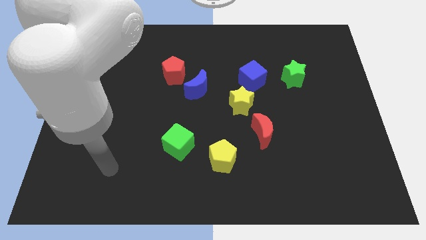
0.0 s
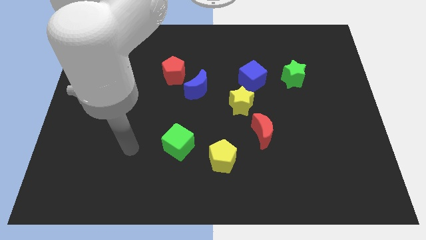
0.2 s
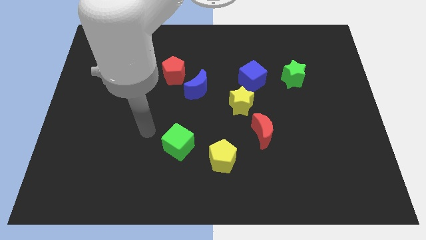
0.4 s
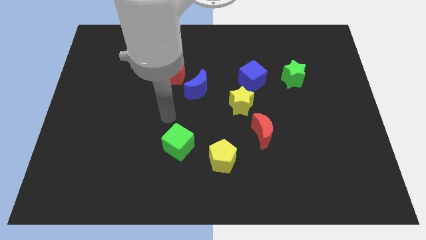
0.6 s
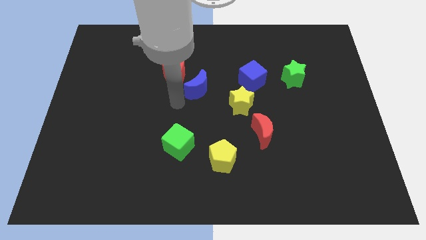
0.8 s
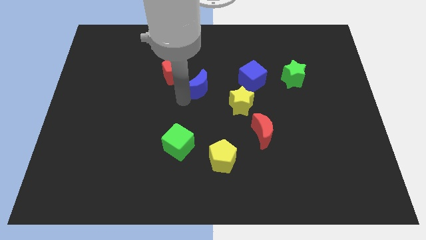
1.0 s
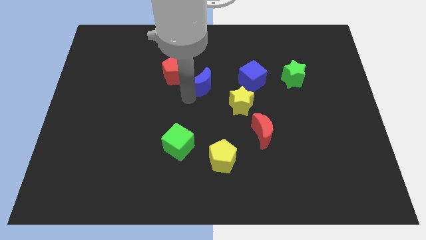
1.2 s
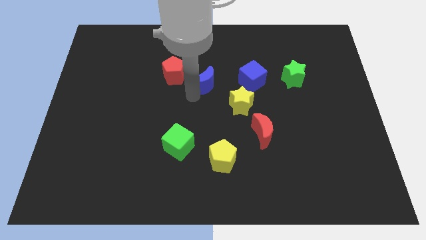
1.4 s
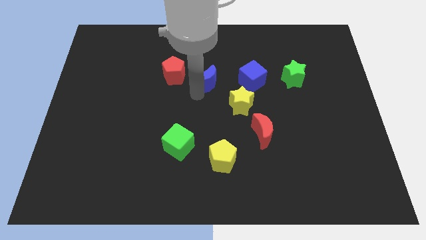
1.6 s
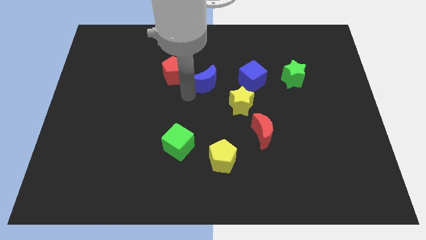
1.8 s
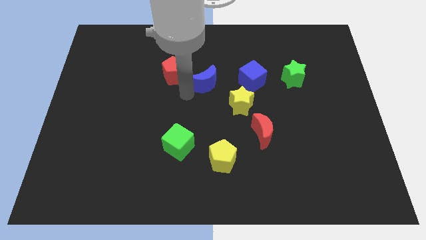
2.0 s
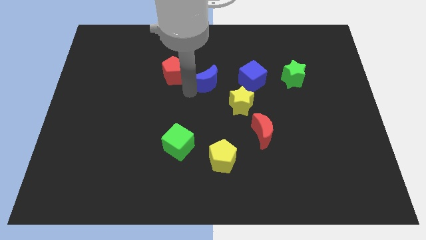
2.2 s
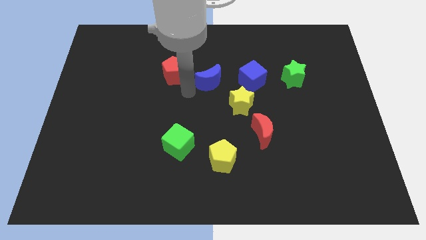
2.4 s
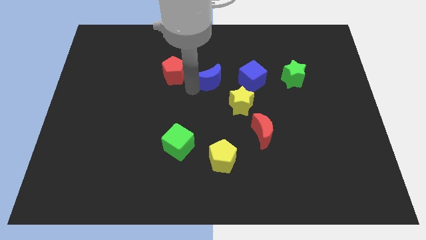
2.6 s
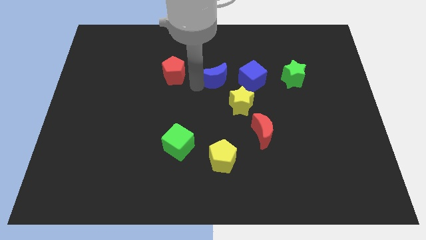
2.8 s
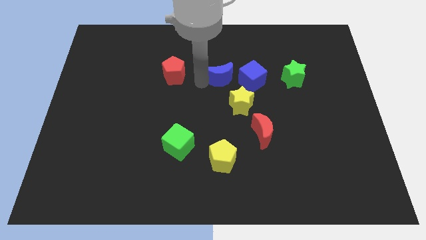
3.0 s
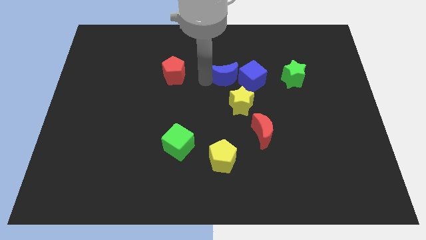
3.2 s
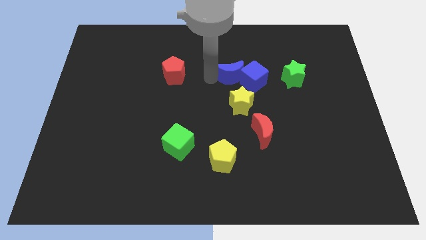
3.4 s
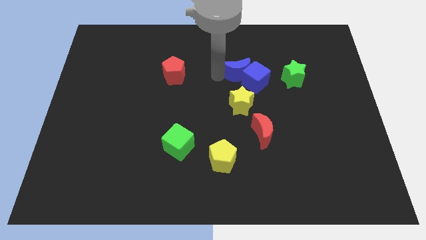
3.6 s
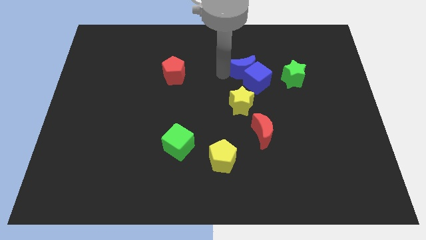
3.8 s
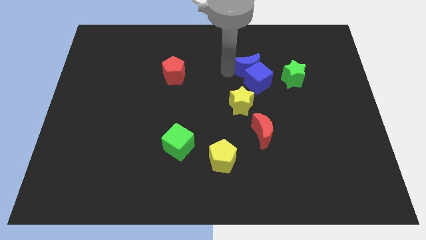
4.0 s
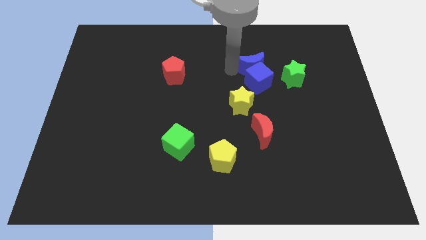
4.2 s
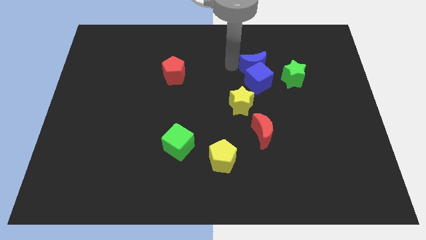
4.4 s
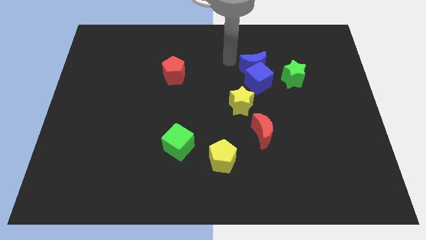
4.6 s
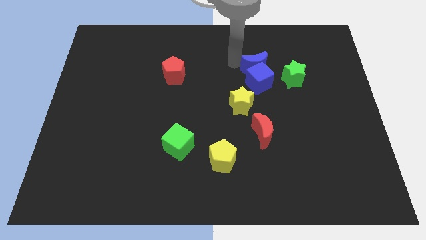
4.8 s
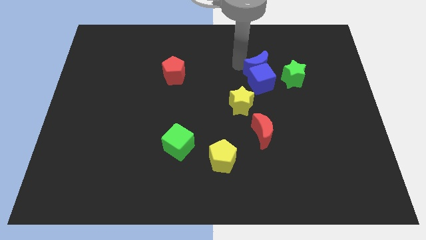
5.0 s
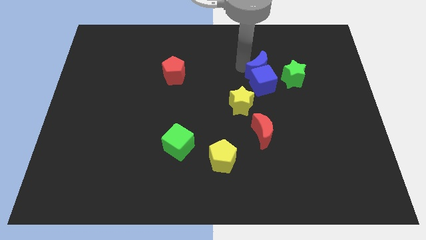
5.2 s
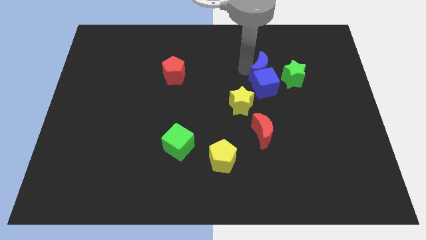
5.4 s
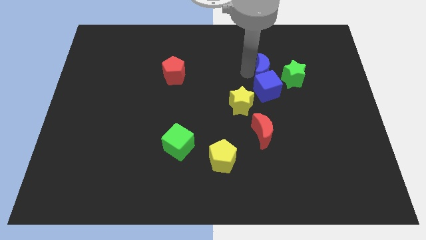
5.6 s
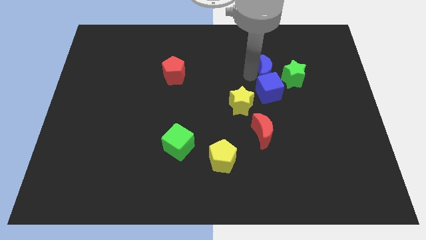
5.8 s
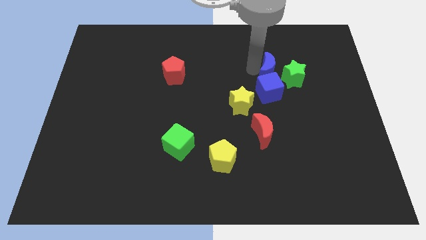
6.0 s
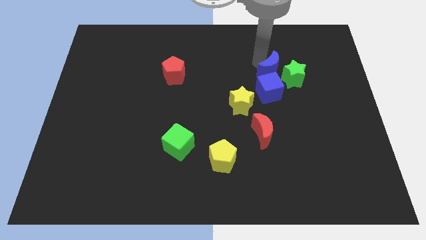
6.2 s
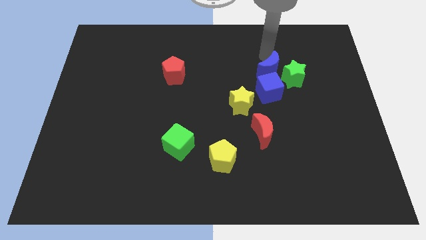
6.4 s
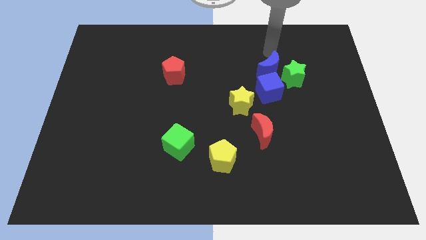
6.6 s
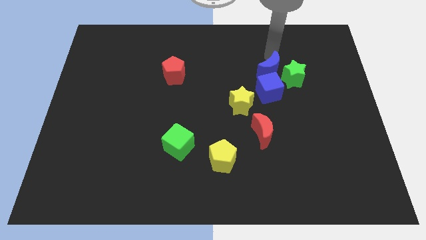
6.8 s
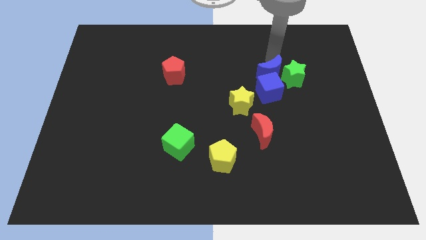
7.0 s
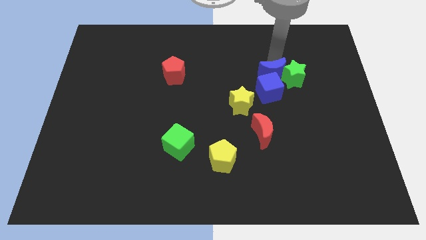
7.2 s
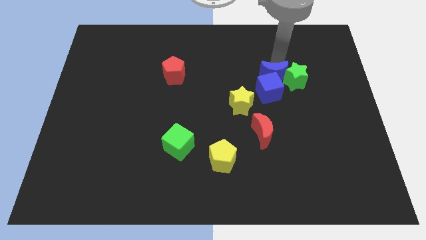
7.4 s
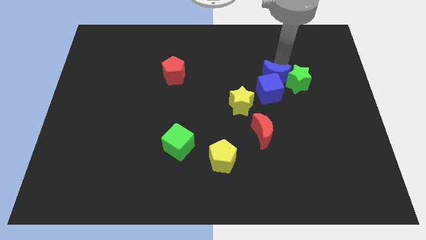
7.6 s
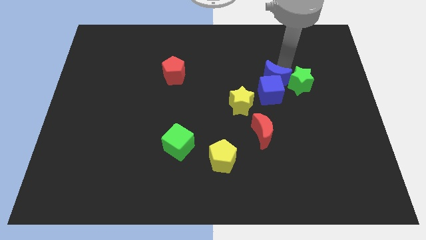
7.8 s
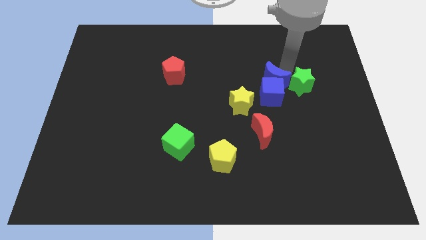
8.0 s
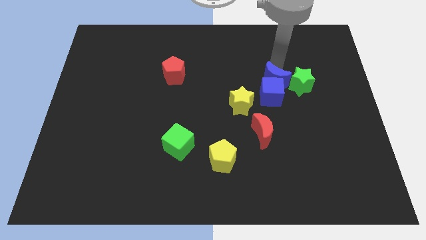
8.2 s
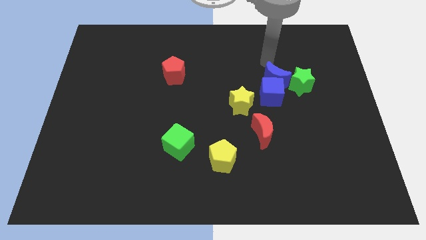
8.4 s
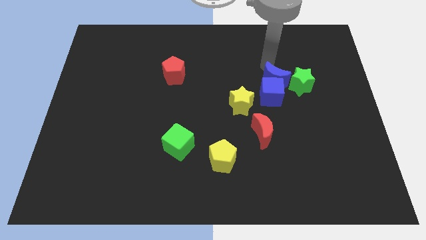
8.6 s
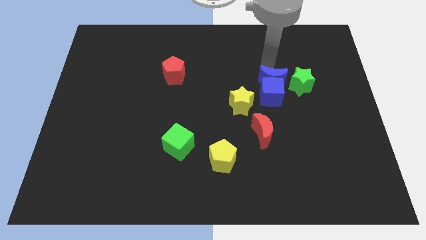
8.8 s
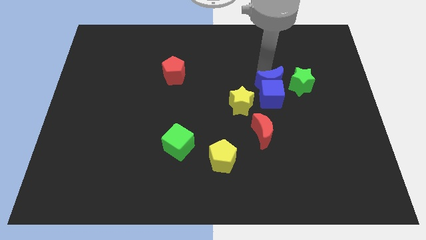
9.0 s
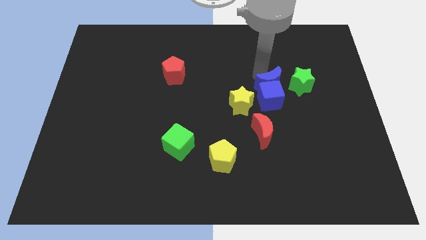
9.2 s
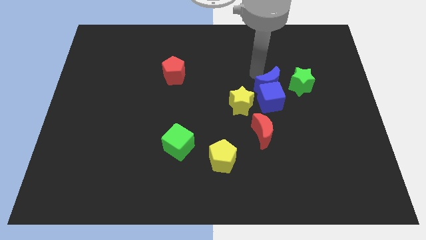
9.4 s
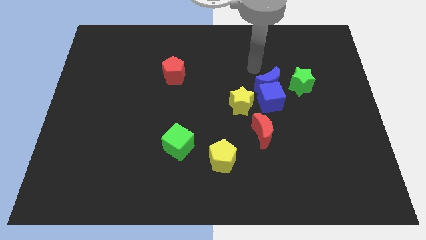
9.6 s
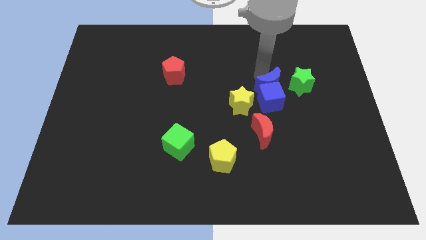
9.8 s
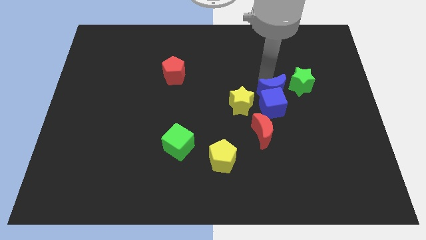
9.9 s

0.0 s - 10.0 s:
move the blue moon to the right side of the yellow star

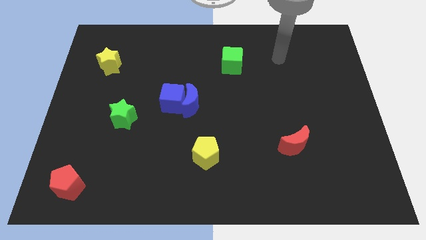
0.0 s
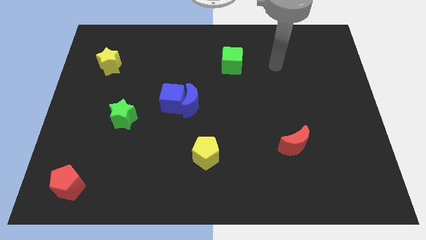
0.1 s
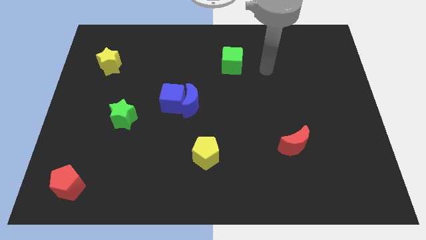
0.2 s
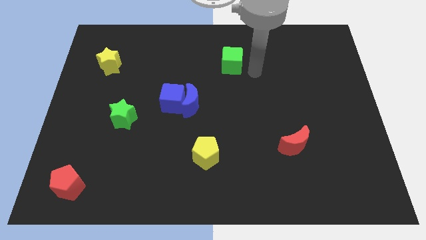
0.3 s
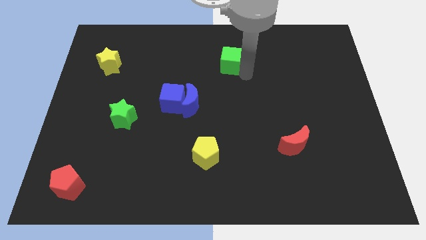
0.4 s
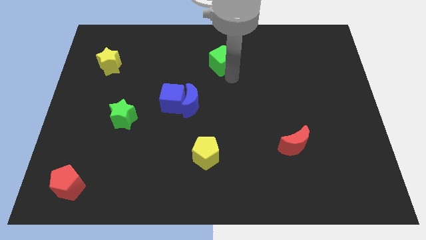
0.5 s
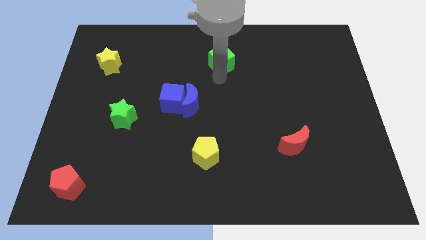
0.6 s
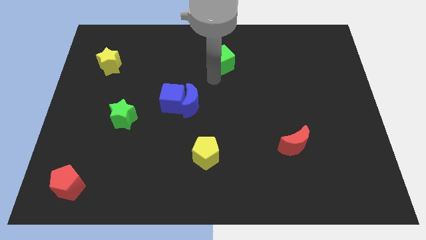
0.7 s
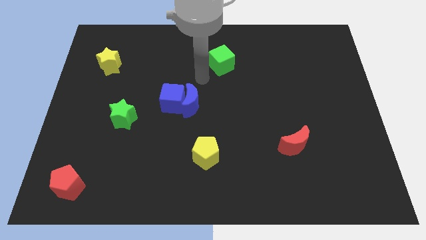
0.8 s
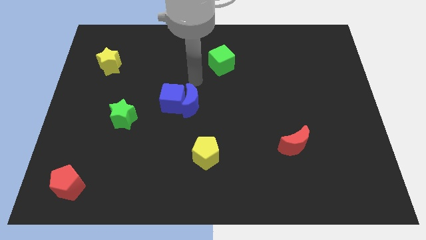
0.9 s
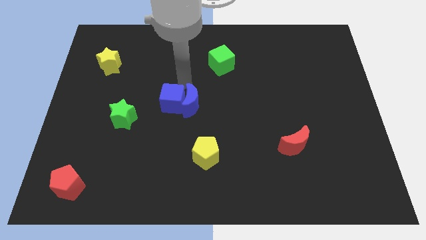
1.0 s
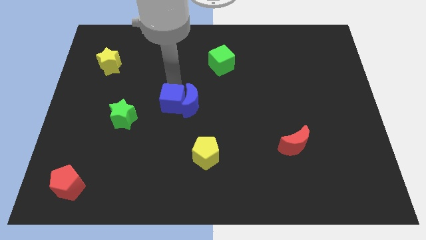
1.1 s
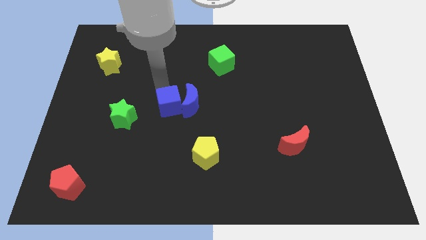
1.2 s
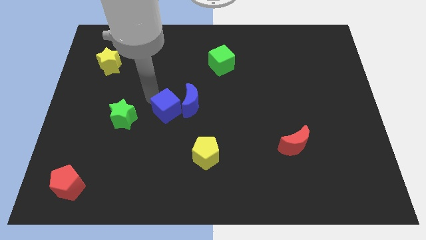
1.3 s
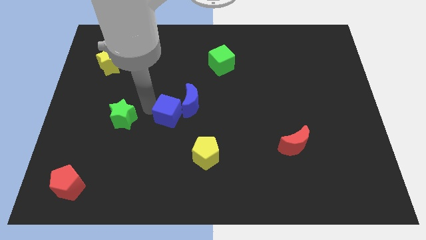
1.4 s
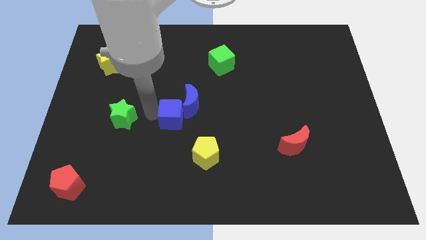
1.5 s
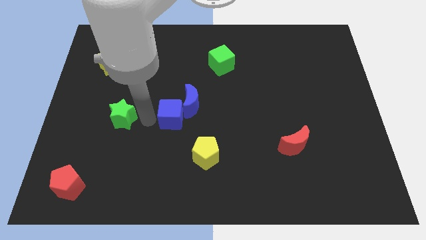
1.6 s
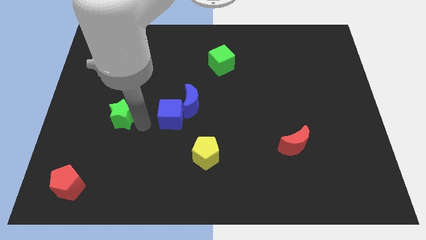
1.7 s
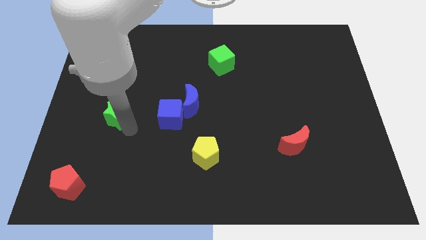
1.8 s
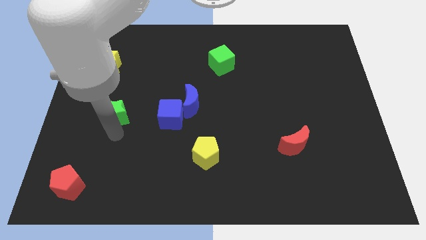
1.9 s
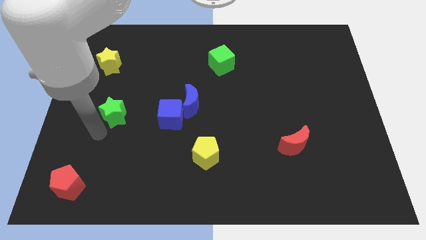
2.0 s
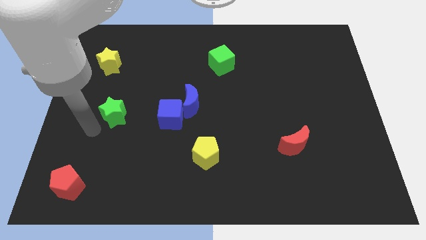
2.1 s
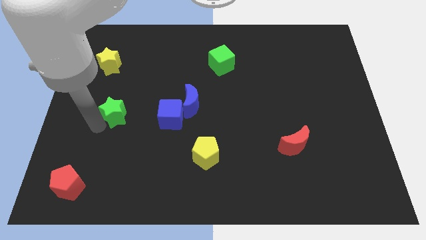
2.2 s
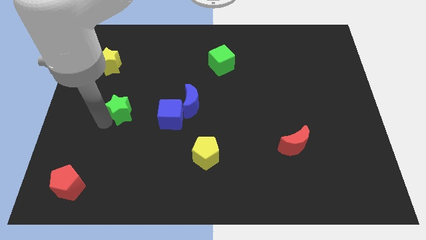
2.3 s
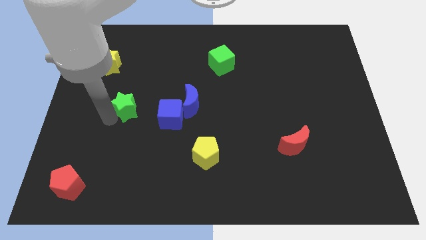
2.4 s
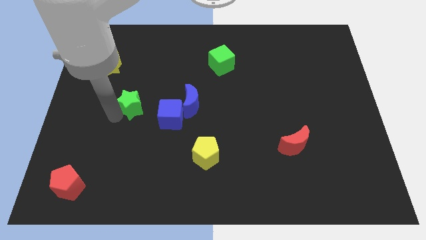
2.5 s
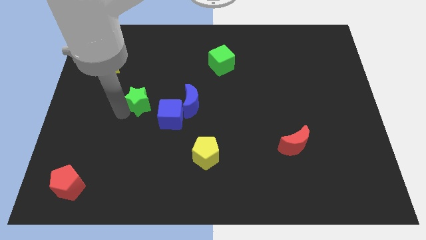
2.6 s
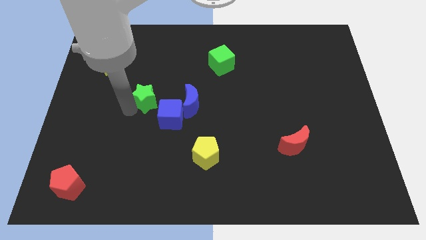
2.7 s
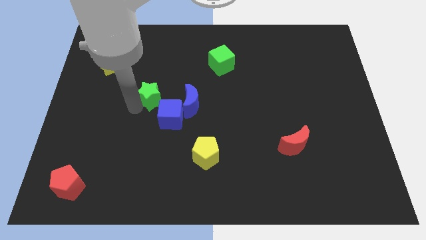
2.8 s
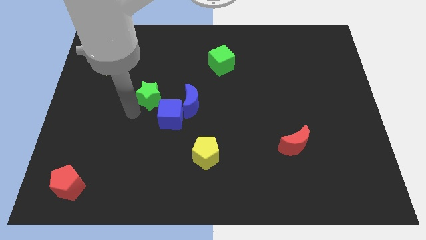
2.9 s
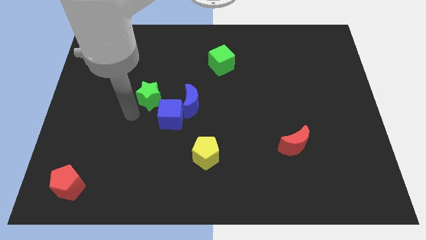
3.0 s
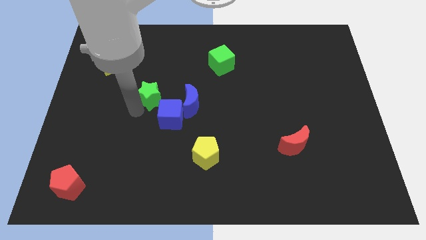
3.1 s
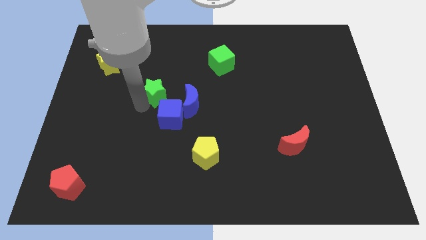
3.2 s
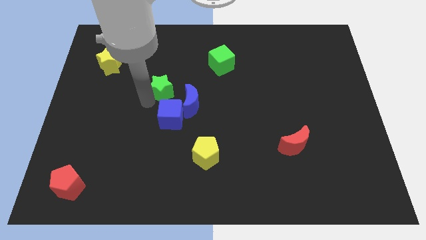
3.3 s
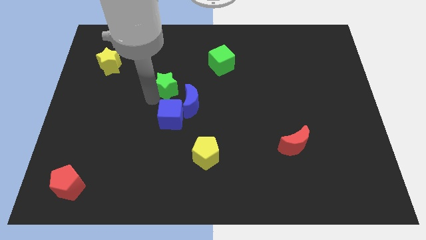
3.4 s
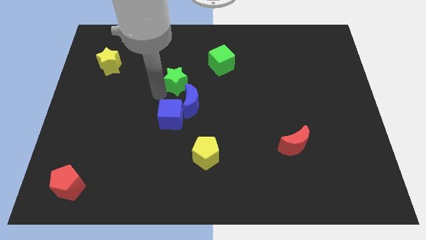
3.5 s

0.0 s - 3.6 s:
move the green star to the top side of the blue moon
